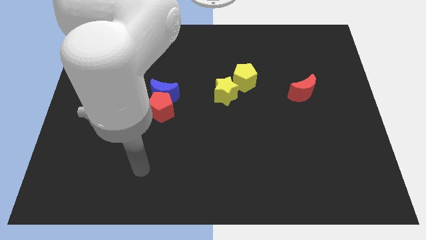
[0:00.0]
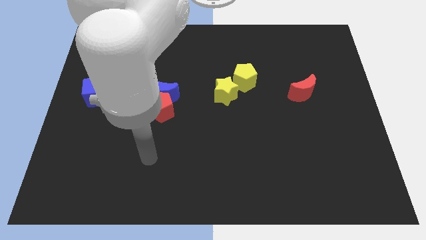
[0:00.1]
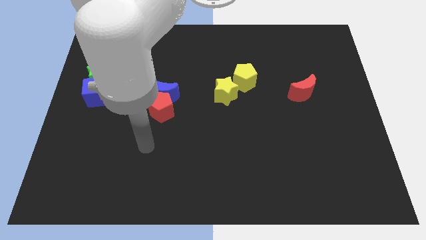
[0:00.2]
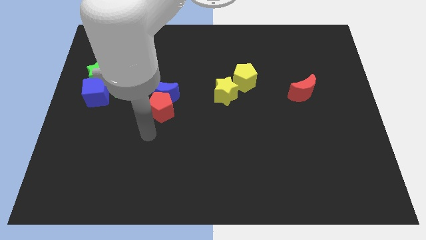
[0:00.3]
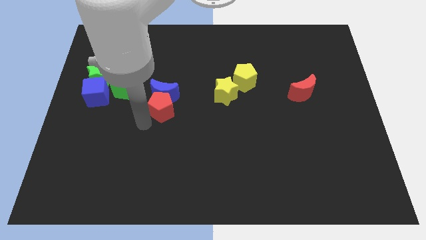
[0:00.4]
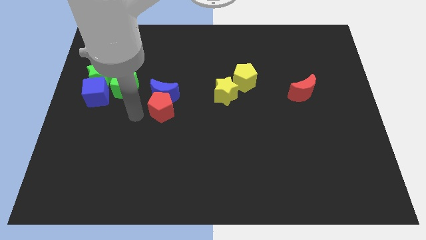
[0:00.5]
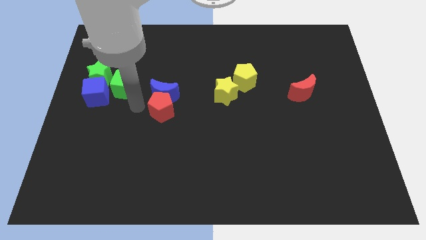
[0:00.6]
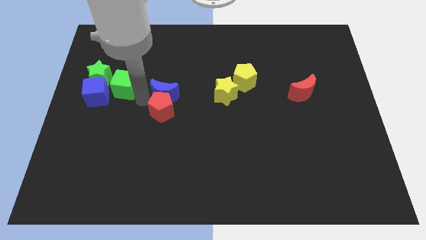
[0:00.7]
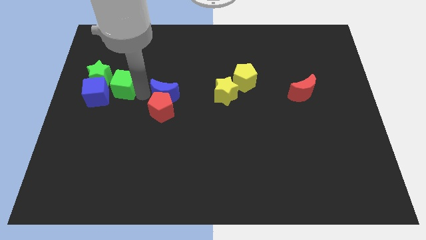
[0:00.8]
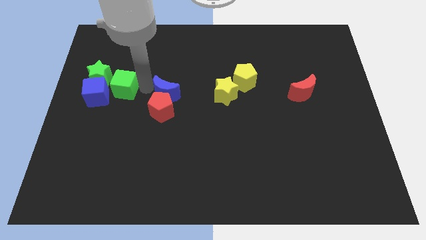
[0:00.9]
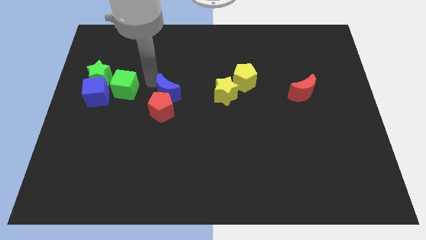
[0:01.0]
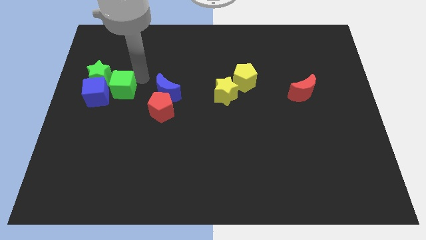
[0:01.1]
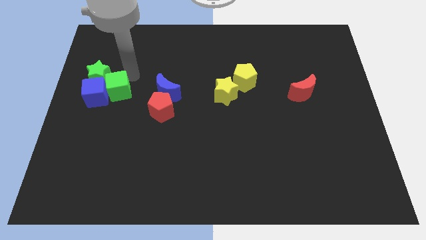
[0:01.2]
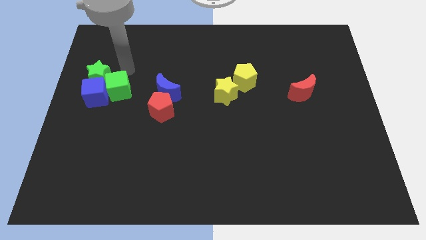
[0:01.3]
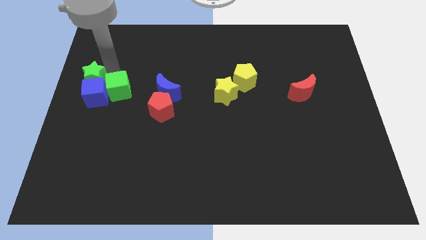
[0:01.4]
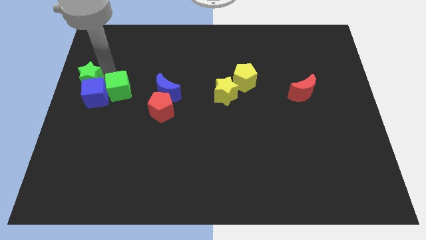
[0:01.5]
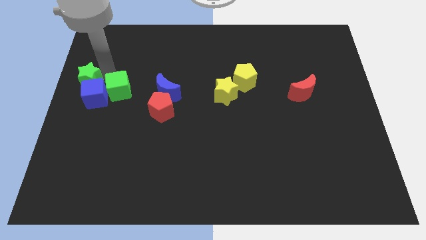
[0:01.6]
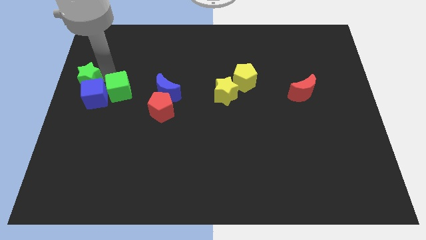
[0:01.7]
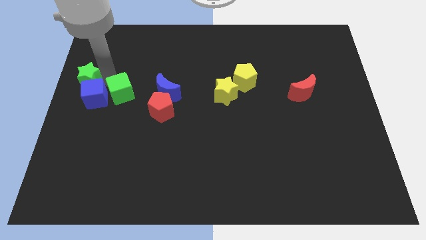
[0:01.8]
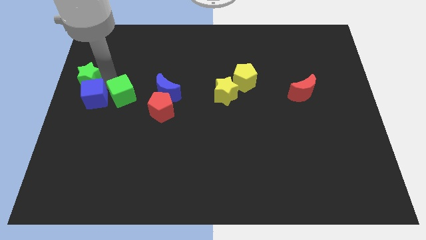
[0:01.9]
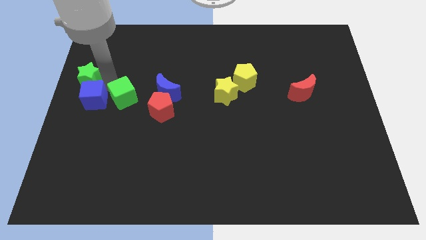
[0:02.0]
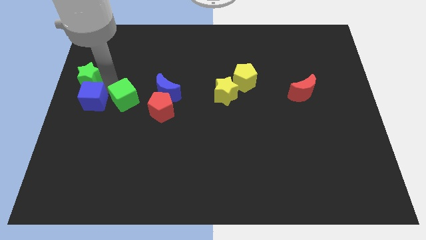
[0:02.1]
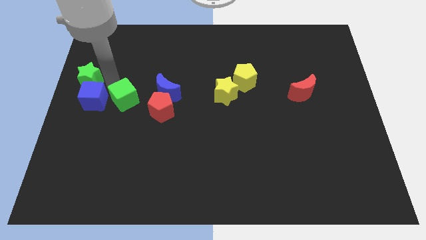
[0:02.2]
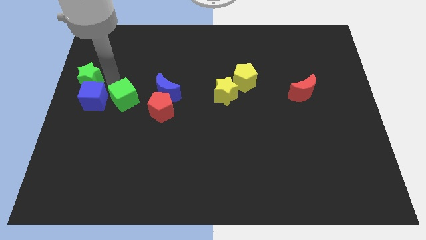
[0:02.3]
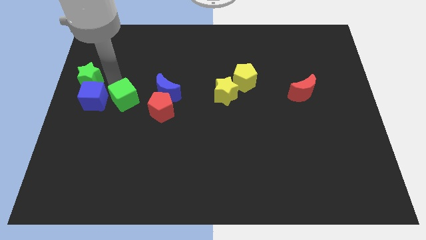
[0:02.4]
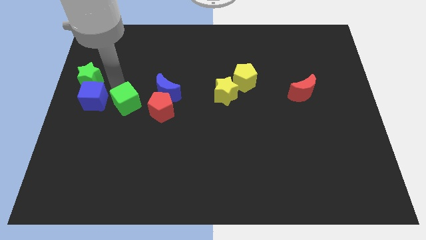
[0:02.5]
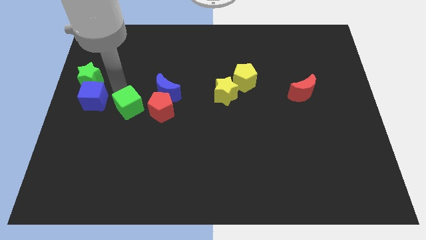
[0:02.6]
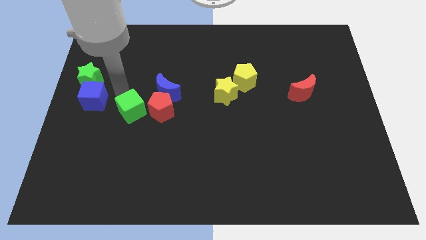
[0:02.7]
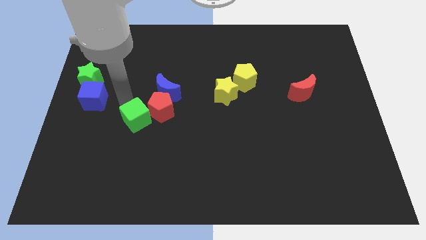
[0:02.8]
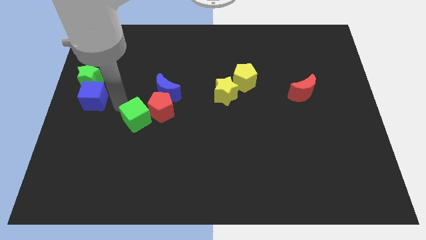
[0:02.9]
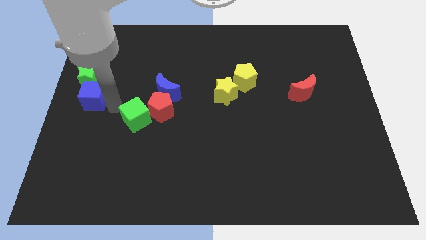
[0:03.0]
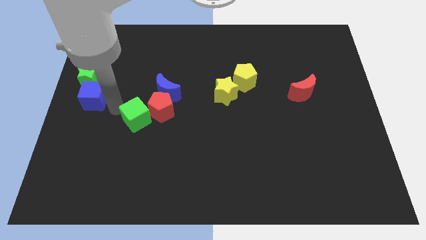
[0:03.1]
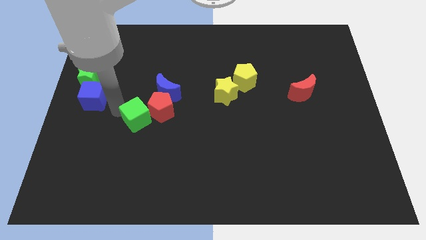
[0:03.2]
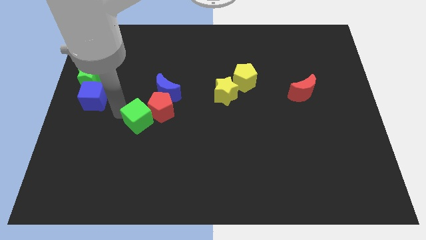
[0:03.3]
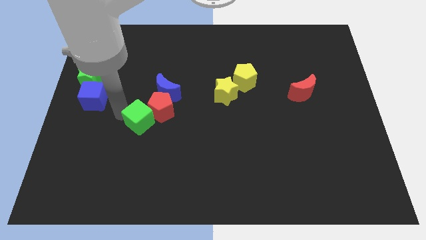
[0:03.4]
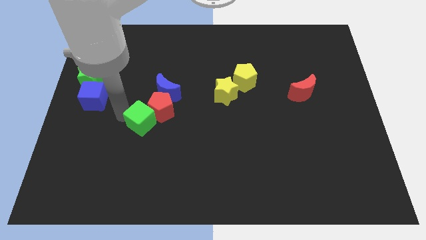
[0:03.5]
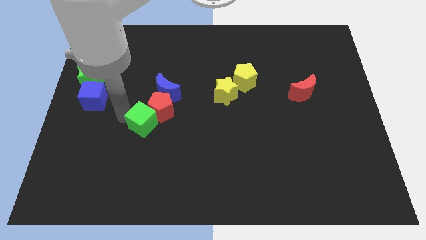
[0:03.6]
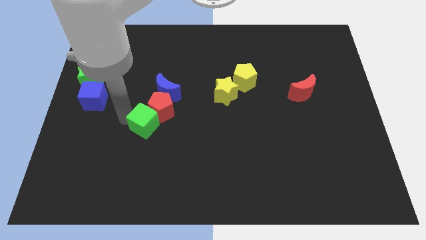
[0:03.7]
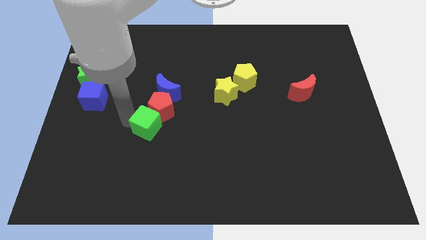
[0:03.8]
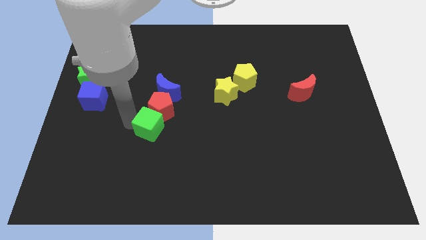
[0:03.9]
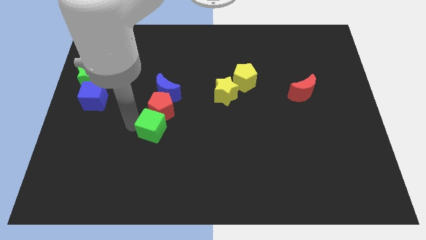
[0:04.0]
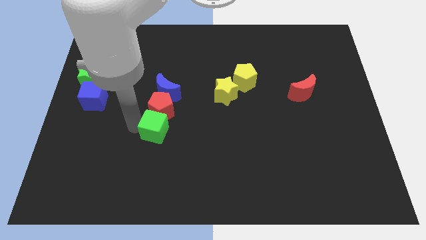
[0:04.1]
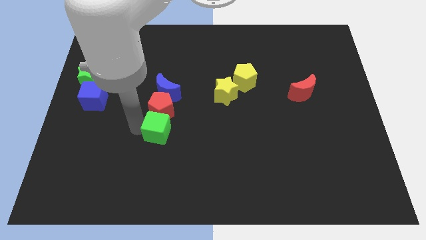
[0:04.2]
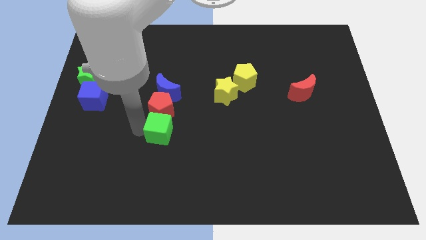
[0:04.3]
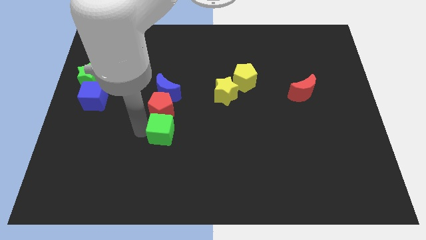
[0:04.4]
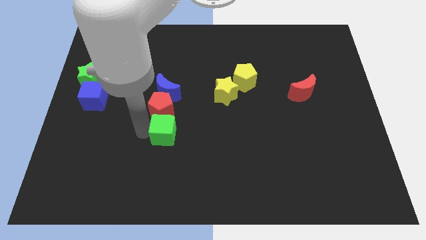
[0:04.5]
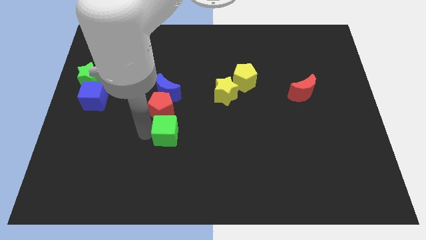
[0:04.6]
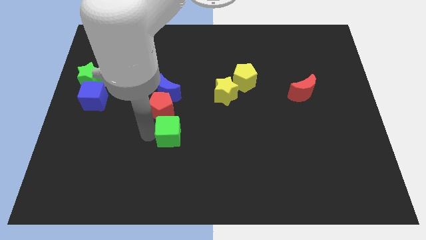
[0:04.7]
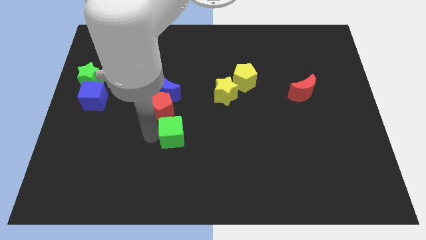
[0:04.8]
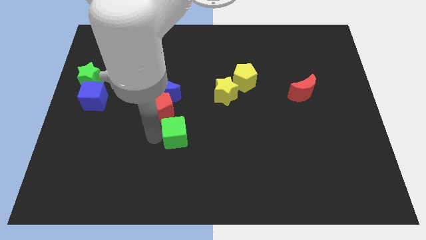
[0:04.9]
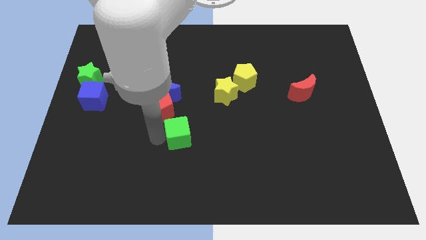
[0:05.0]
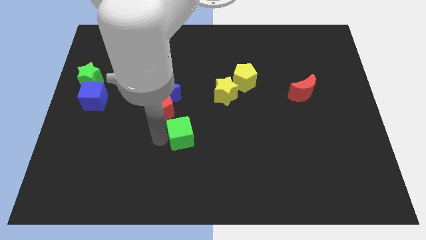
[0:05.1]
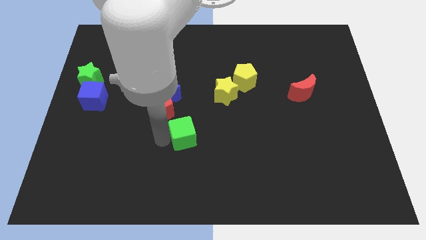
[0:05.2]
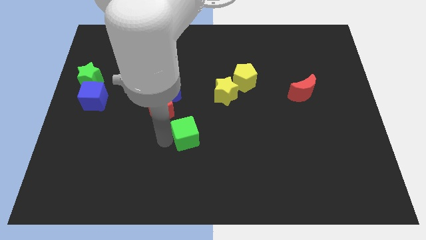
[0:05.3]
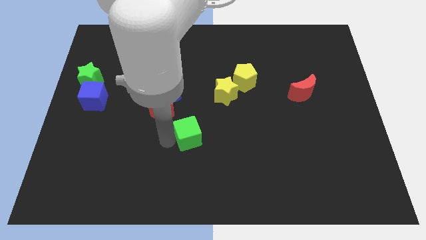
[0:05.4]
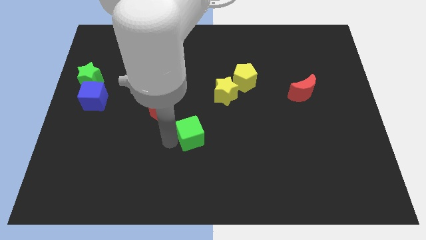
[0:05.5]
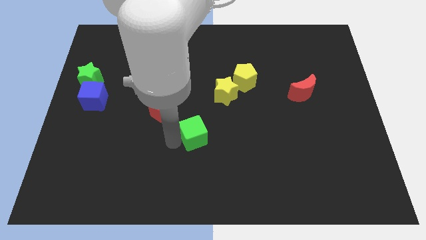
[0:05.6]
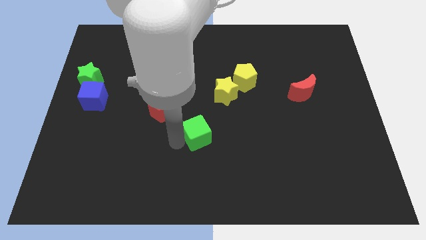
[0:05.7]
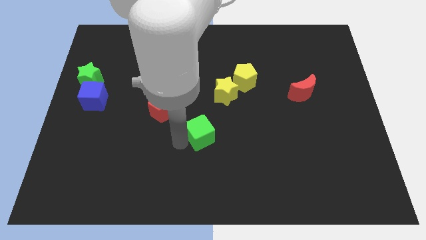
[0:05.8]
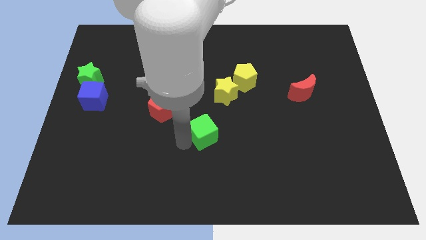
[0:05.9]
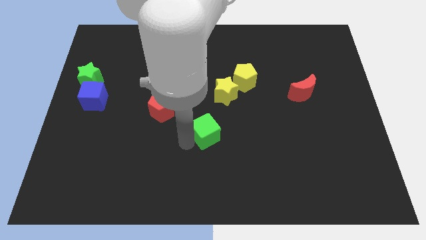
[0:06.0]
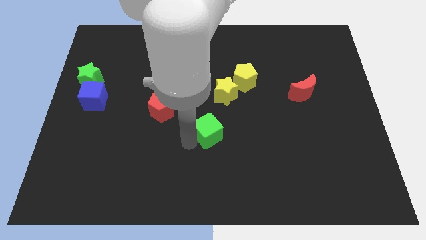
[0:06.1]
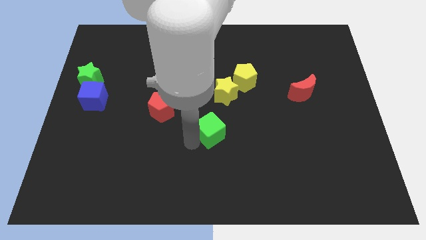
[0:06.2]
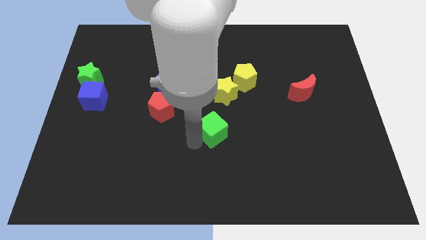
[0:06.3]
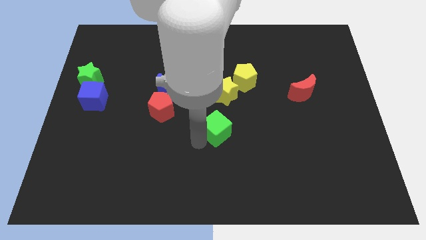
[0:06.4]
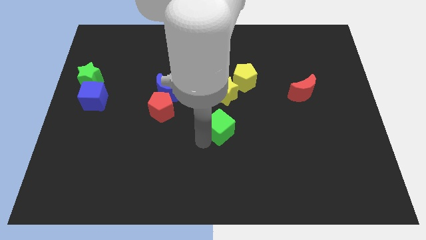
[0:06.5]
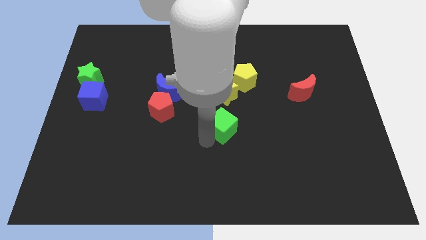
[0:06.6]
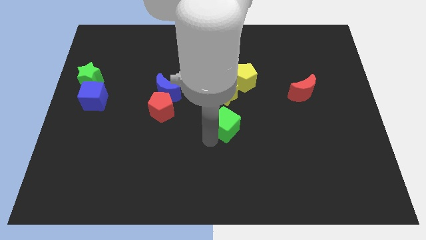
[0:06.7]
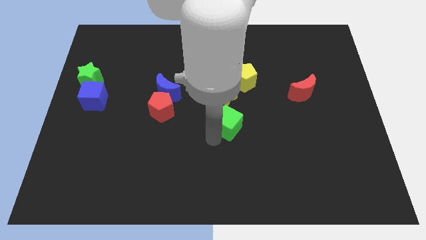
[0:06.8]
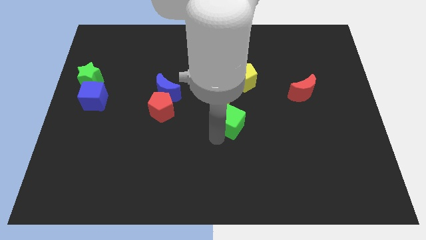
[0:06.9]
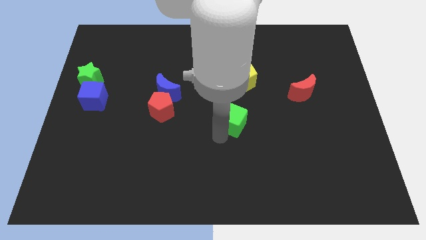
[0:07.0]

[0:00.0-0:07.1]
push the green cube to the right

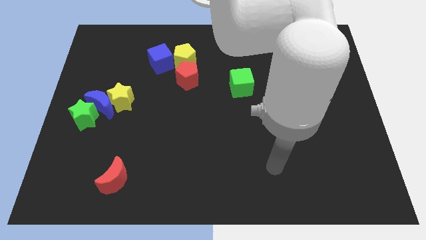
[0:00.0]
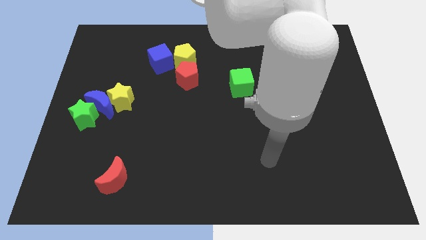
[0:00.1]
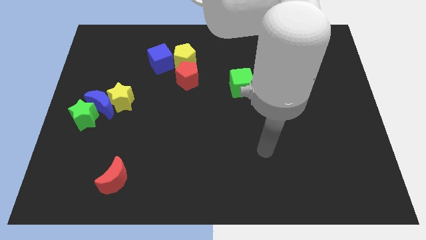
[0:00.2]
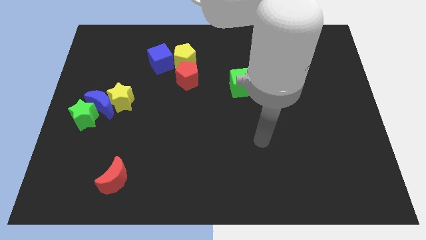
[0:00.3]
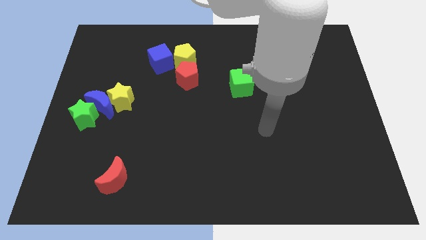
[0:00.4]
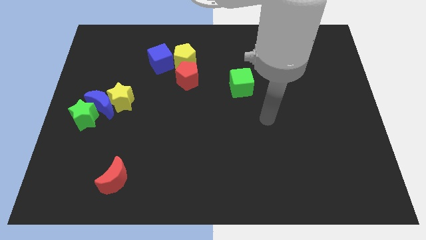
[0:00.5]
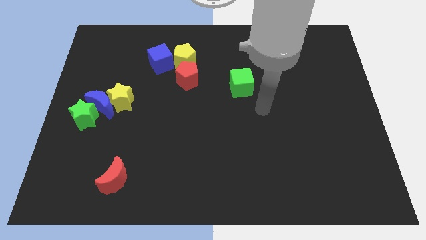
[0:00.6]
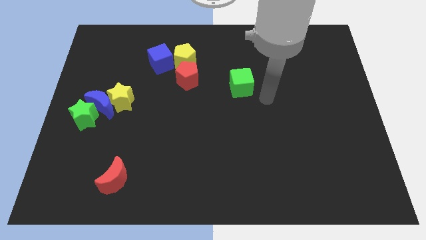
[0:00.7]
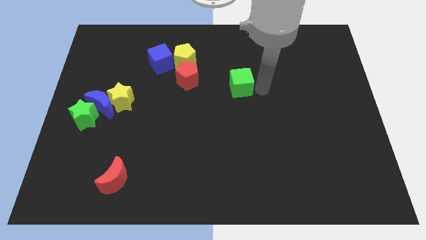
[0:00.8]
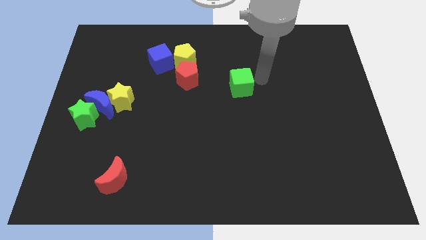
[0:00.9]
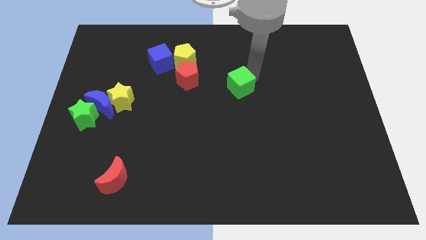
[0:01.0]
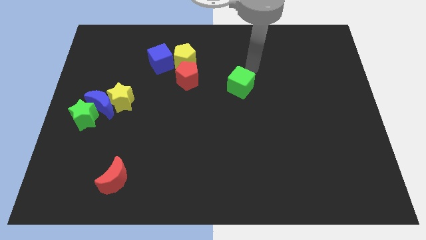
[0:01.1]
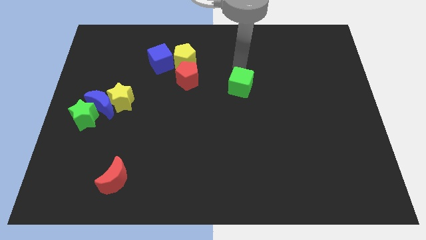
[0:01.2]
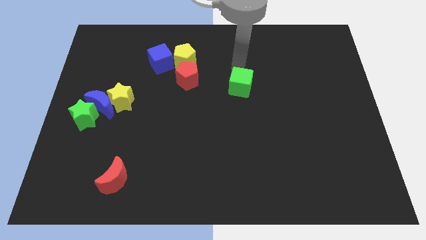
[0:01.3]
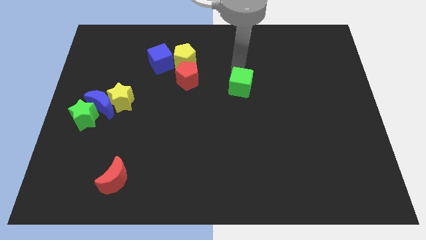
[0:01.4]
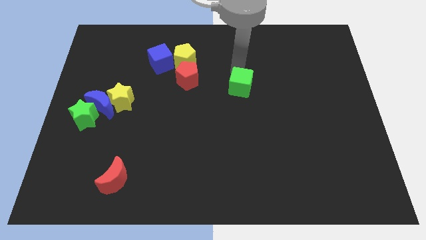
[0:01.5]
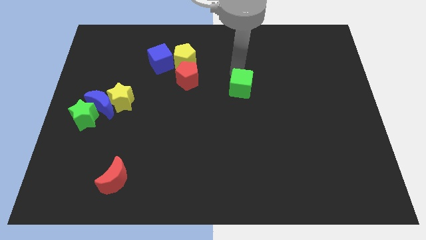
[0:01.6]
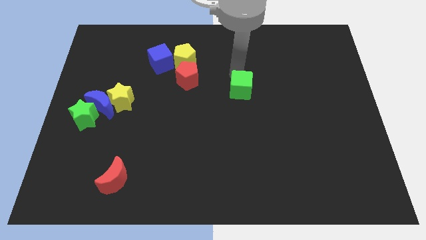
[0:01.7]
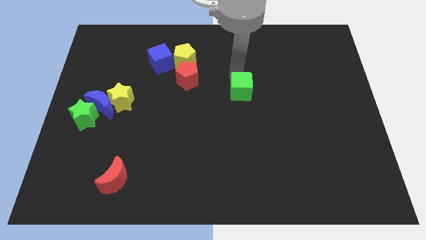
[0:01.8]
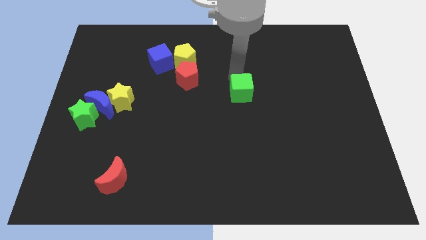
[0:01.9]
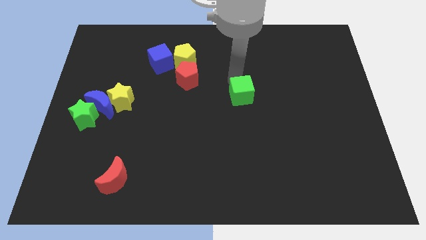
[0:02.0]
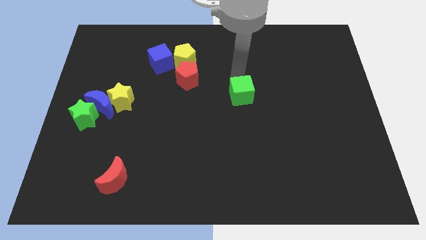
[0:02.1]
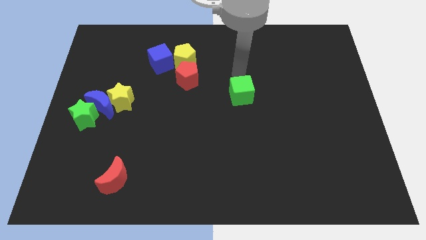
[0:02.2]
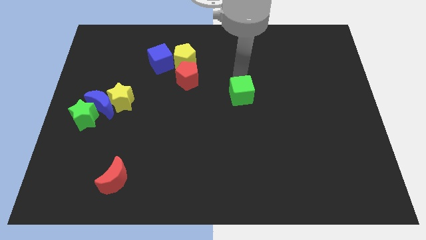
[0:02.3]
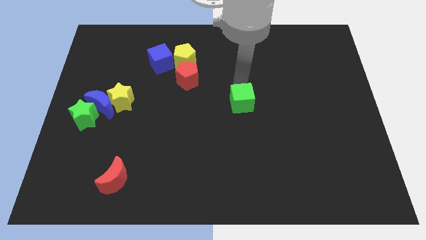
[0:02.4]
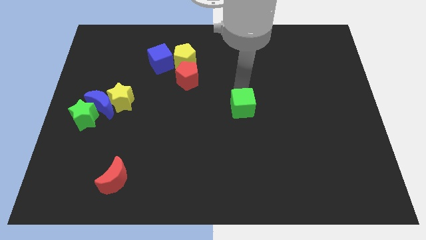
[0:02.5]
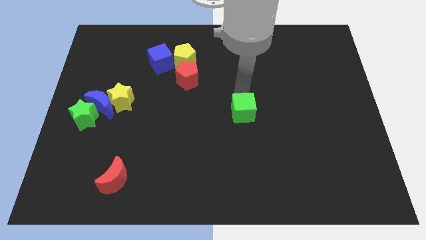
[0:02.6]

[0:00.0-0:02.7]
slightly slide the green cube downwards
